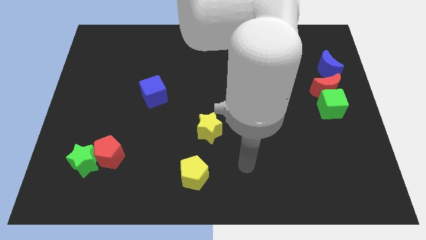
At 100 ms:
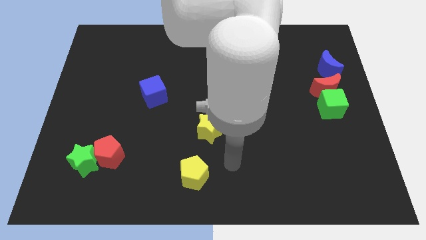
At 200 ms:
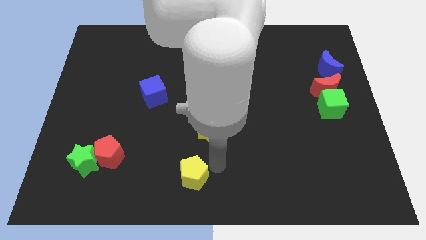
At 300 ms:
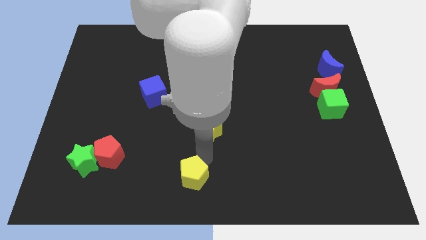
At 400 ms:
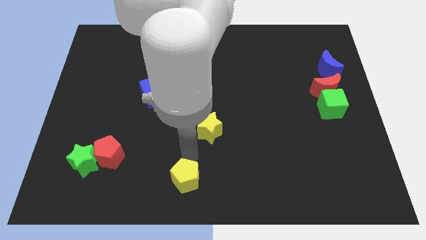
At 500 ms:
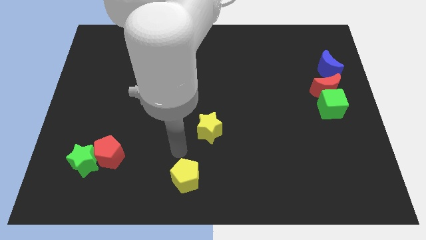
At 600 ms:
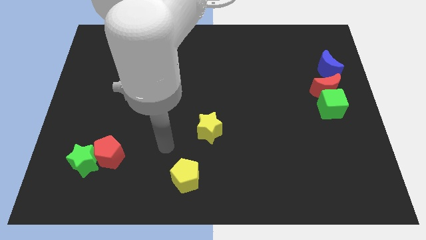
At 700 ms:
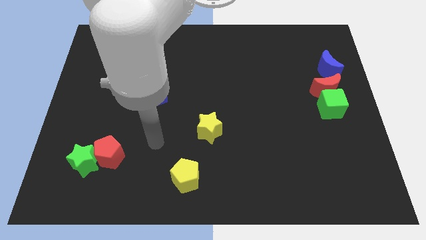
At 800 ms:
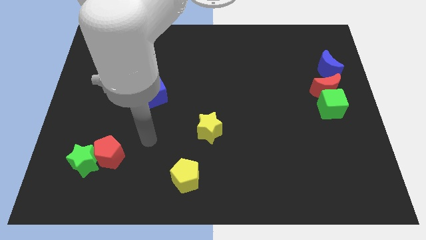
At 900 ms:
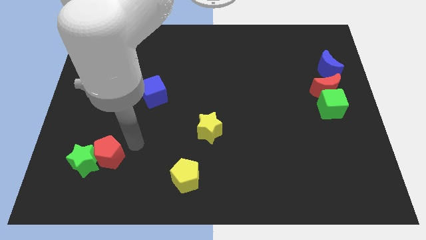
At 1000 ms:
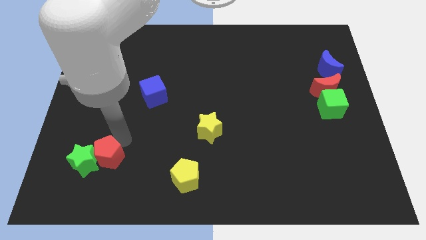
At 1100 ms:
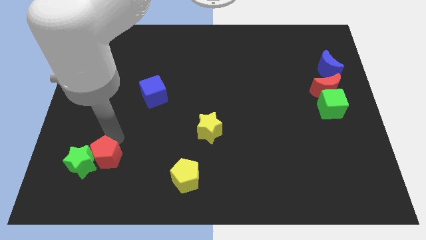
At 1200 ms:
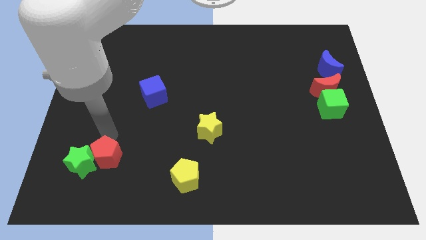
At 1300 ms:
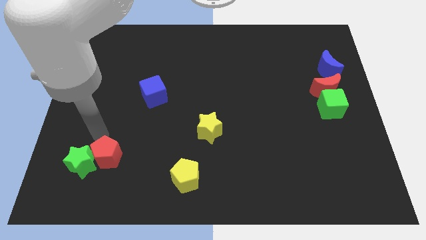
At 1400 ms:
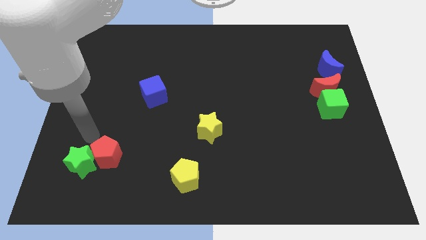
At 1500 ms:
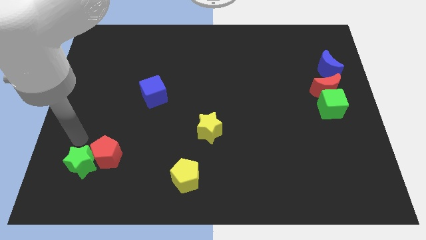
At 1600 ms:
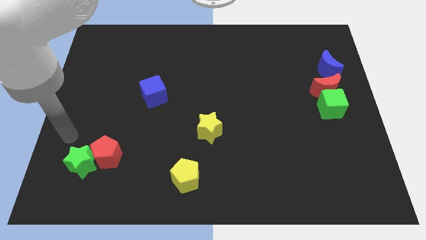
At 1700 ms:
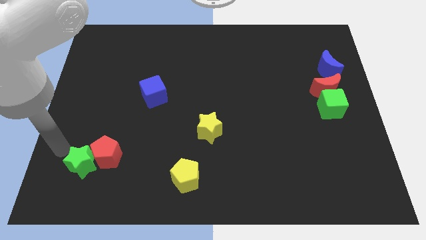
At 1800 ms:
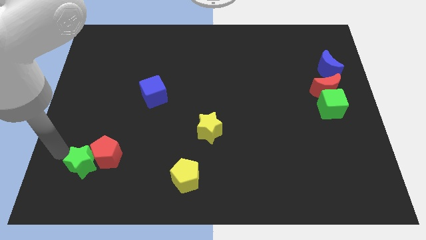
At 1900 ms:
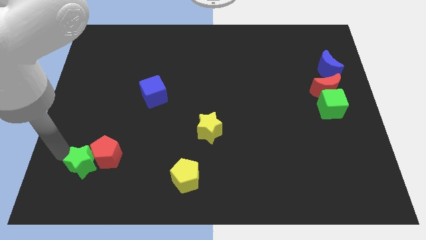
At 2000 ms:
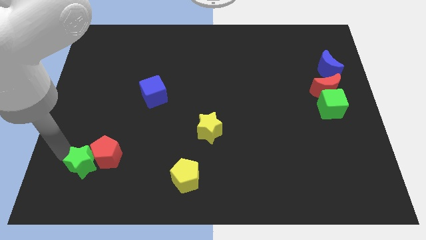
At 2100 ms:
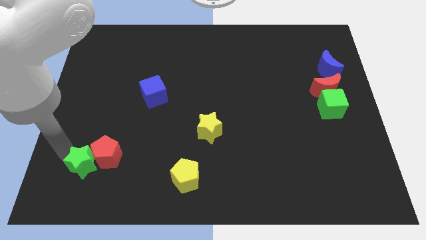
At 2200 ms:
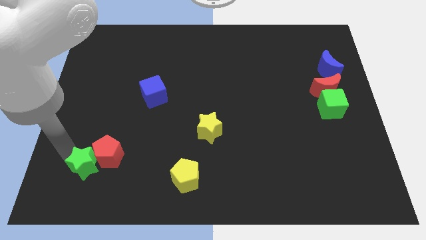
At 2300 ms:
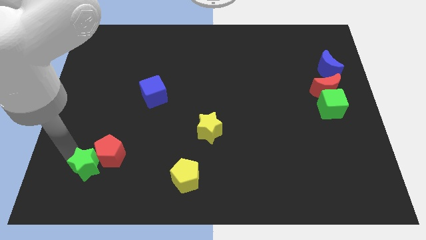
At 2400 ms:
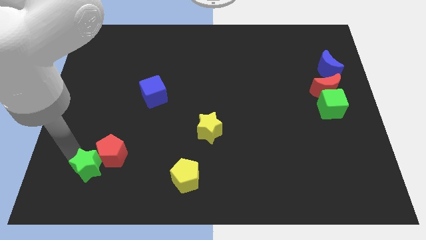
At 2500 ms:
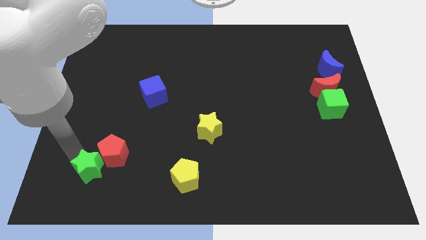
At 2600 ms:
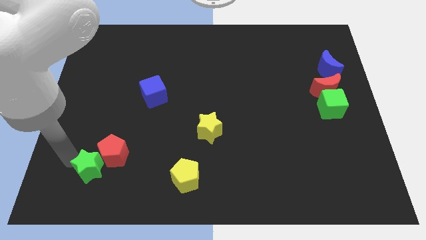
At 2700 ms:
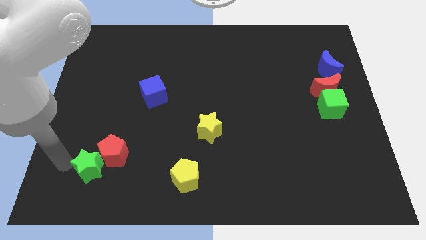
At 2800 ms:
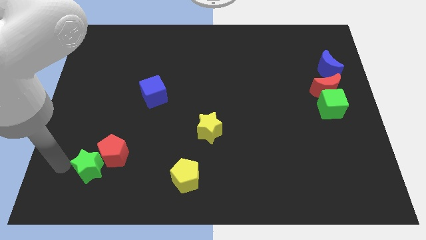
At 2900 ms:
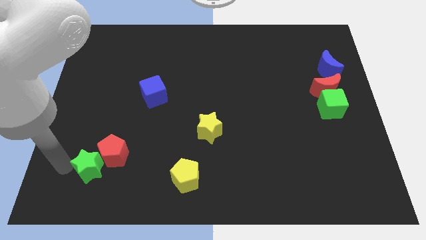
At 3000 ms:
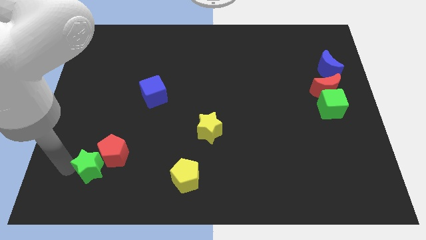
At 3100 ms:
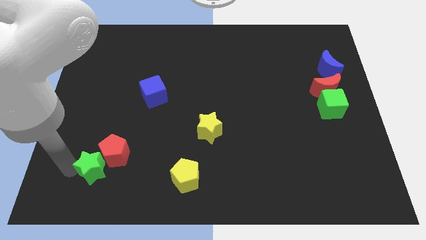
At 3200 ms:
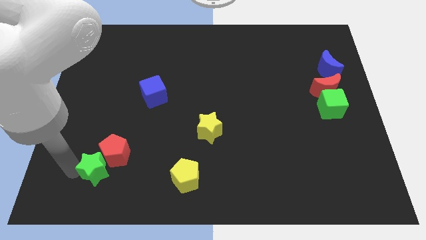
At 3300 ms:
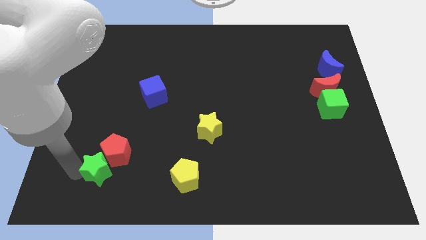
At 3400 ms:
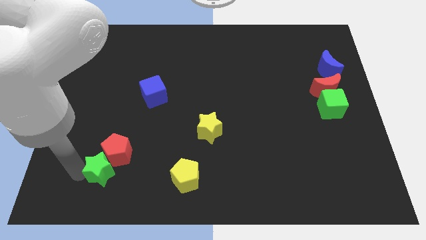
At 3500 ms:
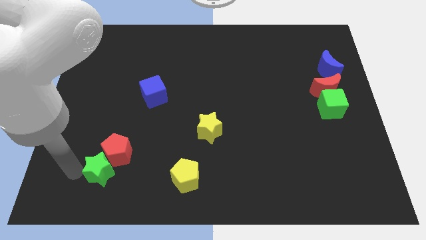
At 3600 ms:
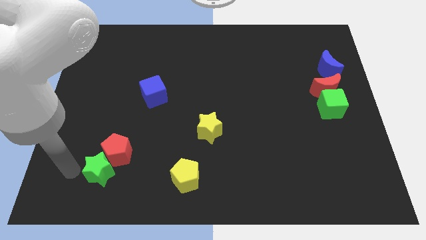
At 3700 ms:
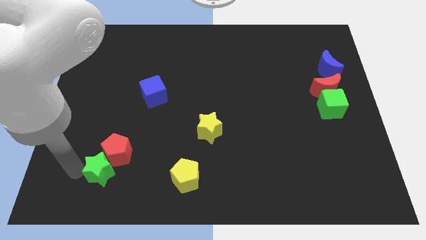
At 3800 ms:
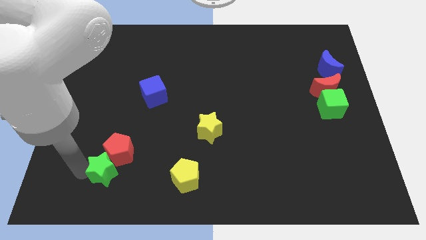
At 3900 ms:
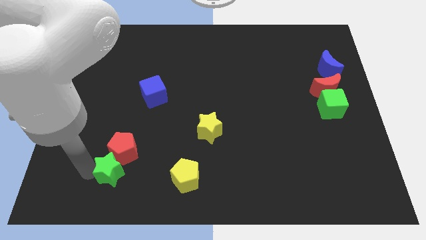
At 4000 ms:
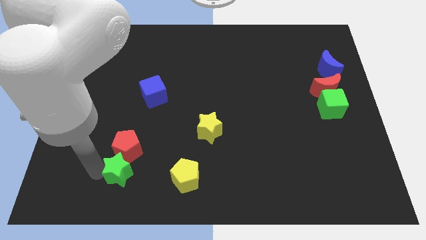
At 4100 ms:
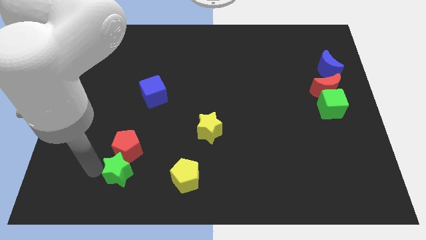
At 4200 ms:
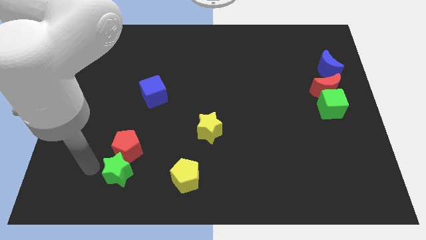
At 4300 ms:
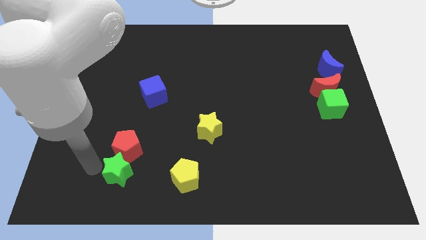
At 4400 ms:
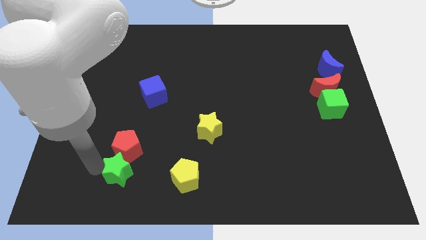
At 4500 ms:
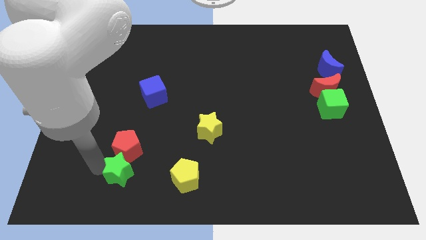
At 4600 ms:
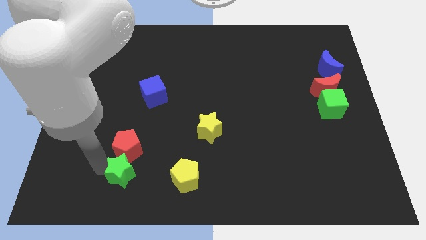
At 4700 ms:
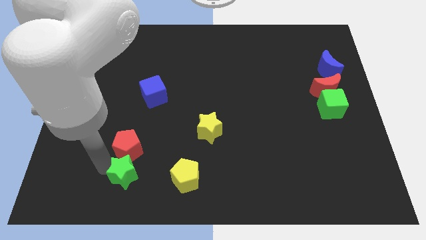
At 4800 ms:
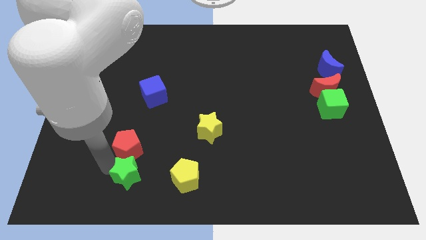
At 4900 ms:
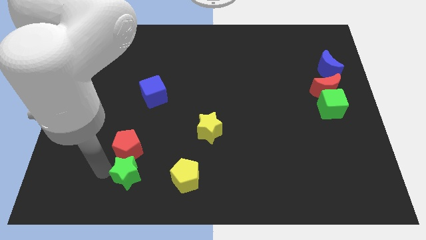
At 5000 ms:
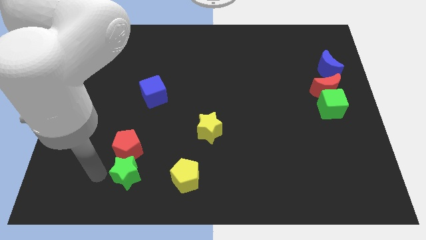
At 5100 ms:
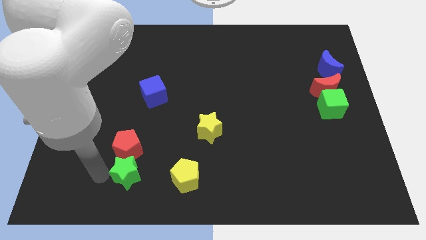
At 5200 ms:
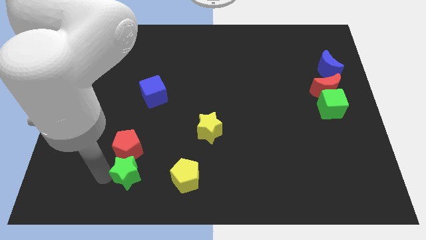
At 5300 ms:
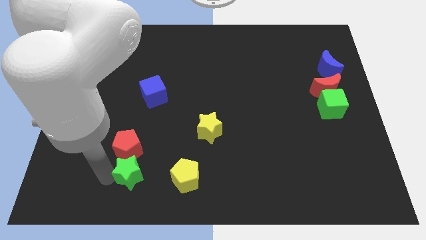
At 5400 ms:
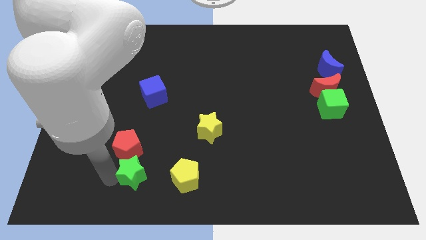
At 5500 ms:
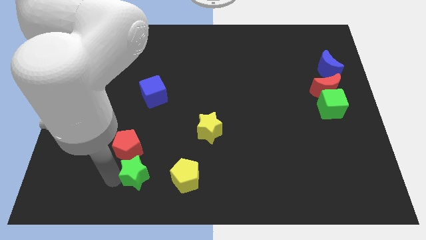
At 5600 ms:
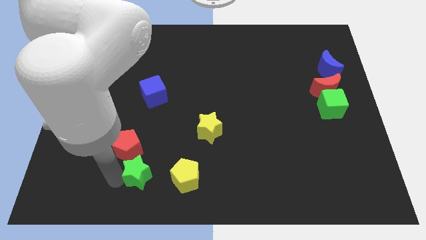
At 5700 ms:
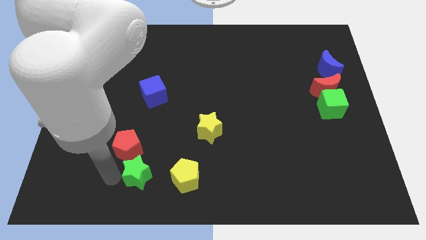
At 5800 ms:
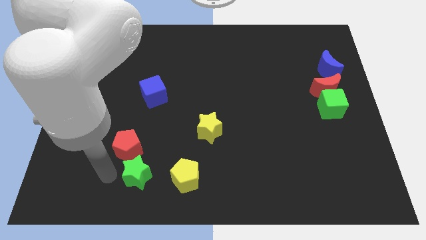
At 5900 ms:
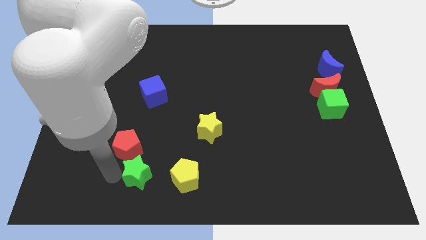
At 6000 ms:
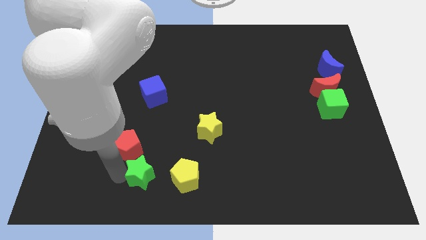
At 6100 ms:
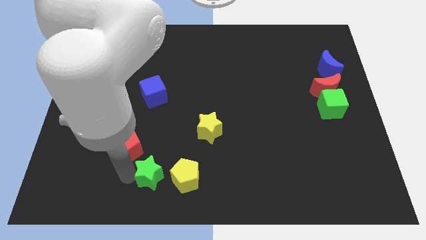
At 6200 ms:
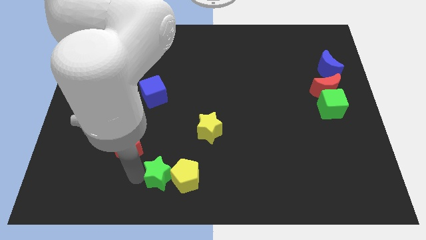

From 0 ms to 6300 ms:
move the green star next to the yellow pentagon

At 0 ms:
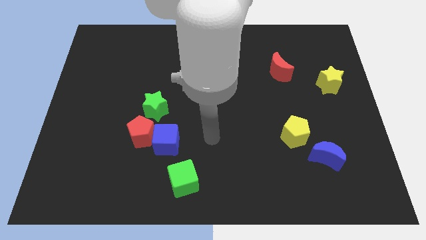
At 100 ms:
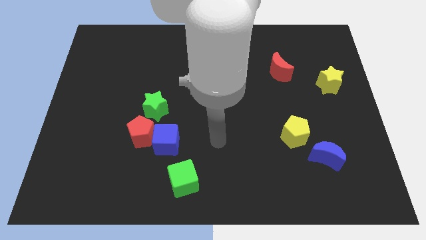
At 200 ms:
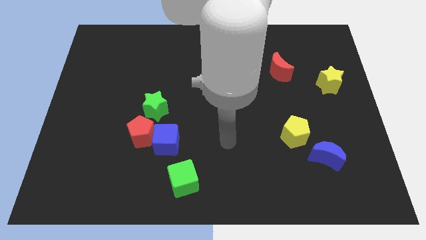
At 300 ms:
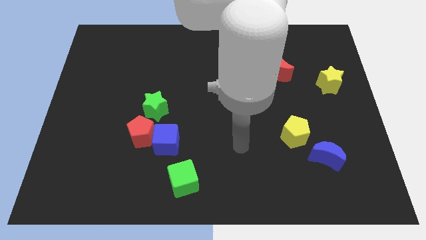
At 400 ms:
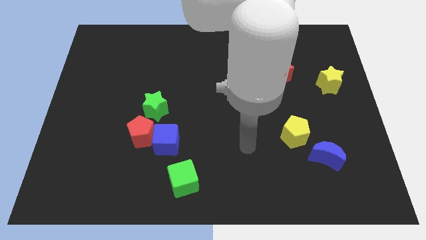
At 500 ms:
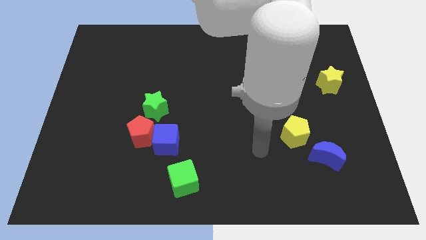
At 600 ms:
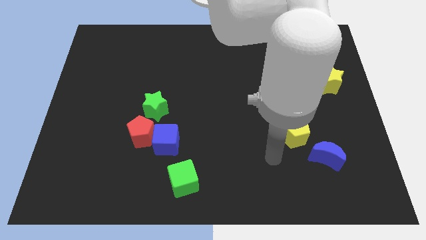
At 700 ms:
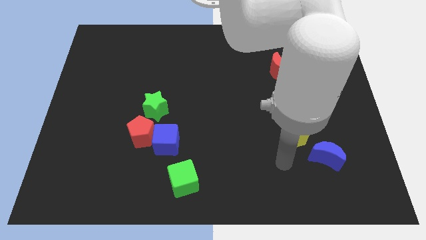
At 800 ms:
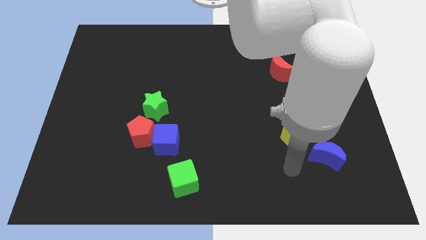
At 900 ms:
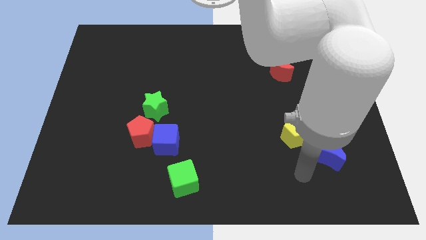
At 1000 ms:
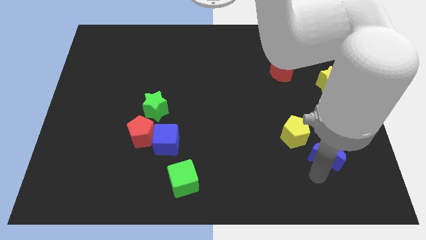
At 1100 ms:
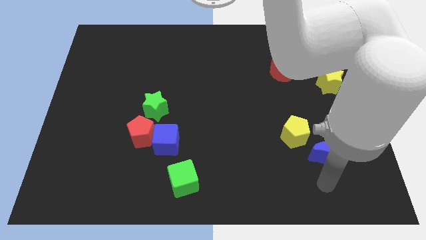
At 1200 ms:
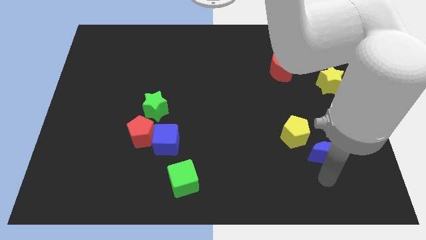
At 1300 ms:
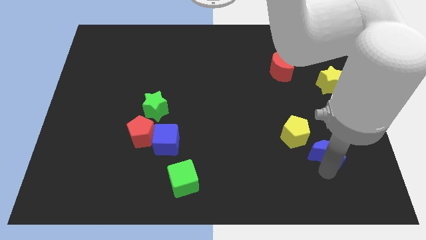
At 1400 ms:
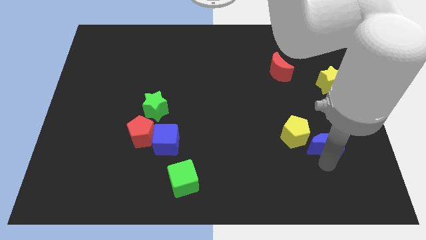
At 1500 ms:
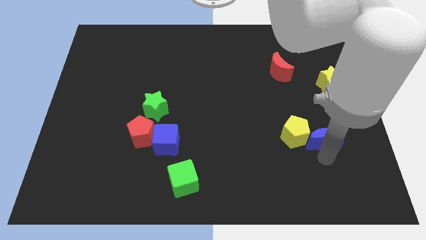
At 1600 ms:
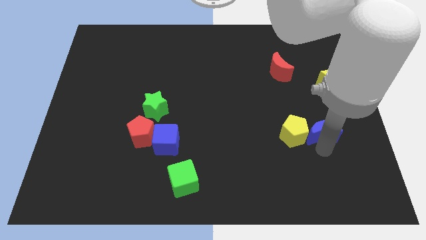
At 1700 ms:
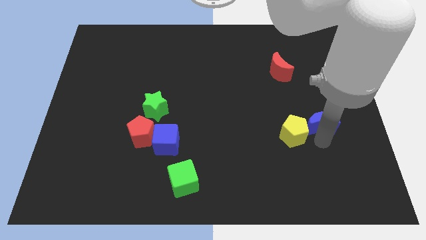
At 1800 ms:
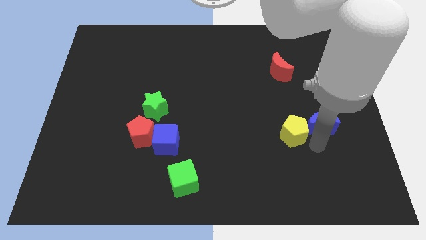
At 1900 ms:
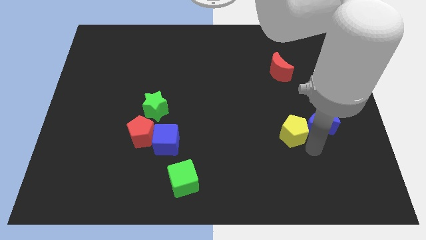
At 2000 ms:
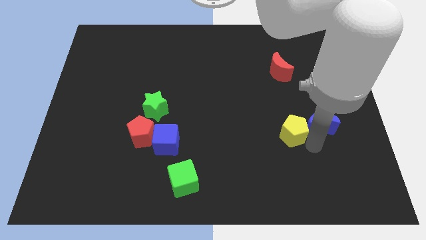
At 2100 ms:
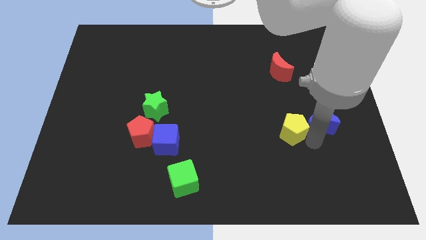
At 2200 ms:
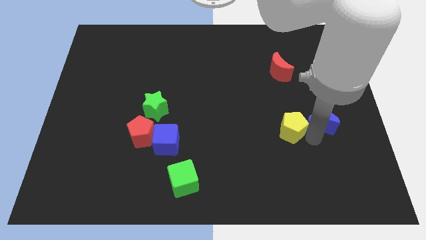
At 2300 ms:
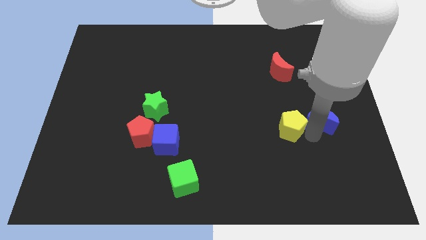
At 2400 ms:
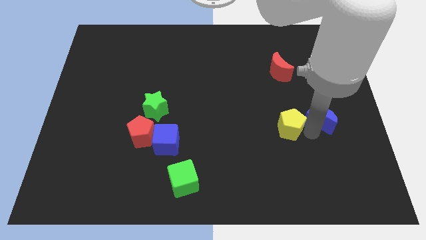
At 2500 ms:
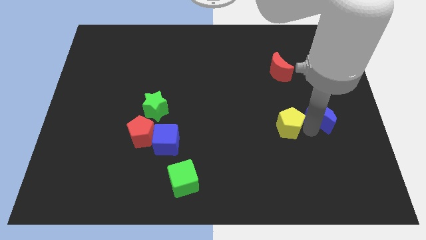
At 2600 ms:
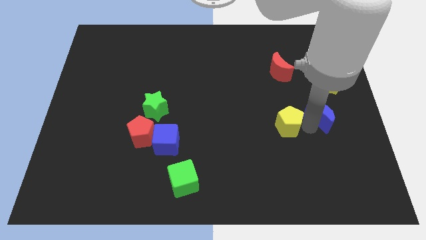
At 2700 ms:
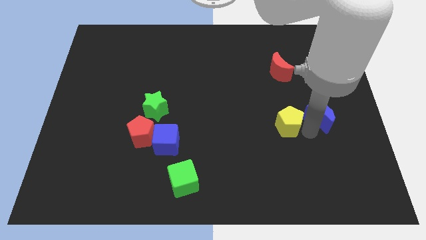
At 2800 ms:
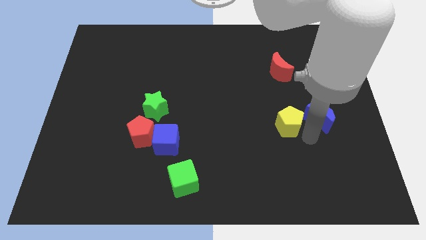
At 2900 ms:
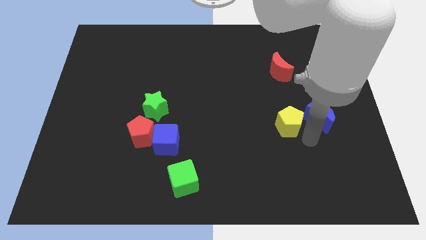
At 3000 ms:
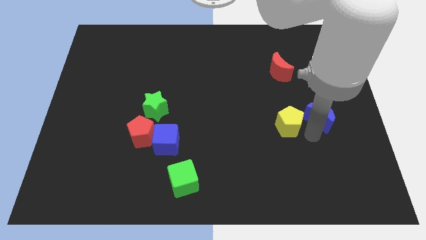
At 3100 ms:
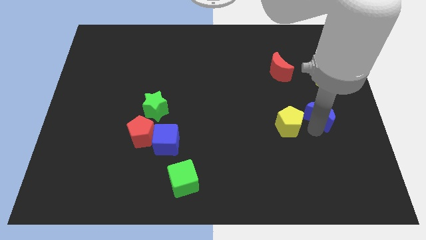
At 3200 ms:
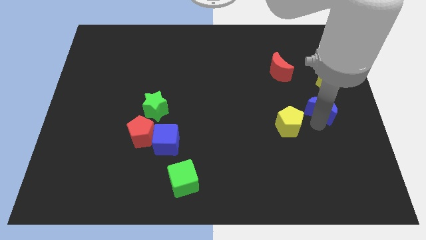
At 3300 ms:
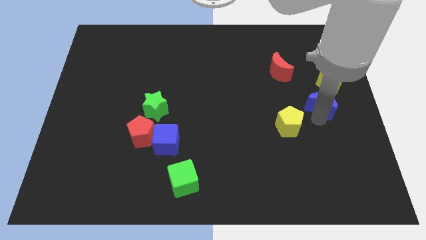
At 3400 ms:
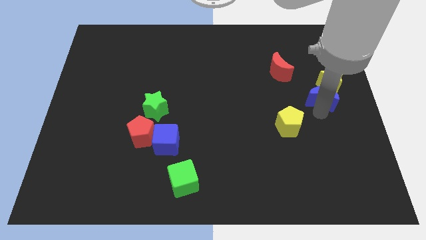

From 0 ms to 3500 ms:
slide the blue moon next to the yellow star
